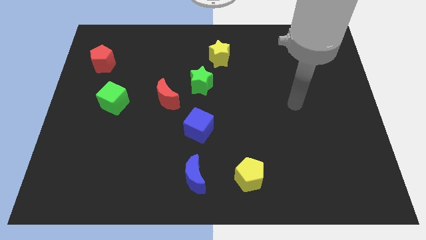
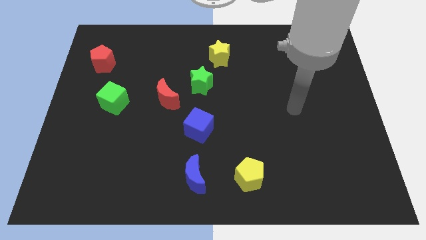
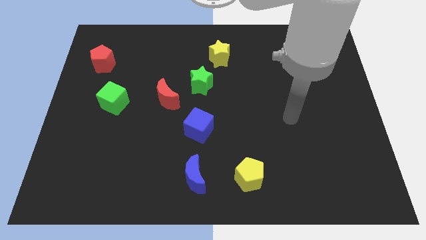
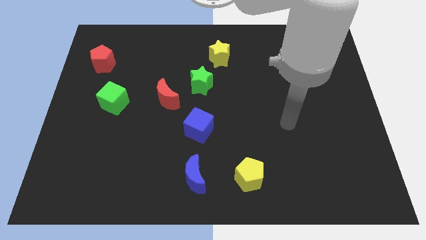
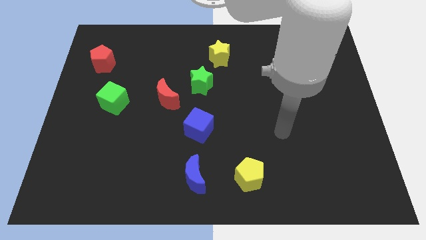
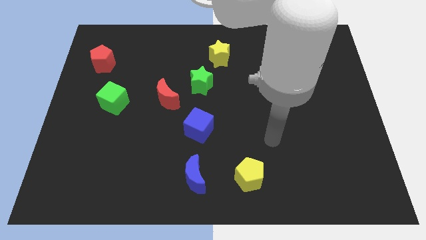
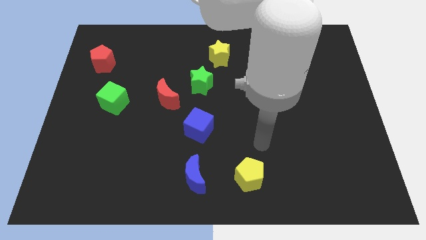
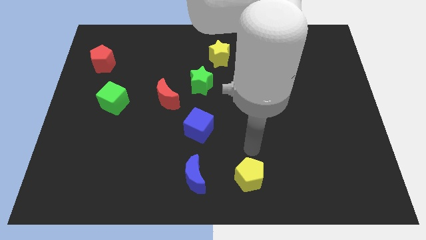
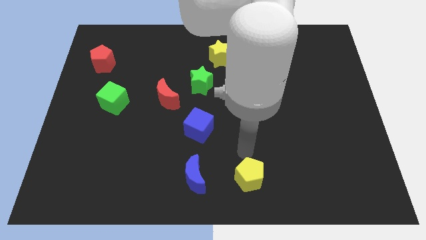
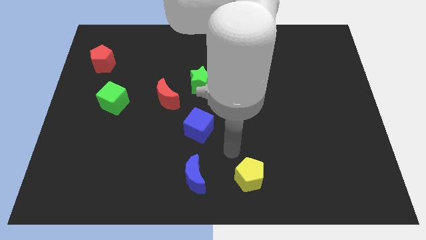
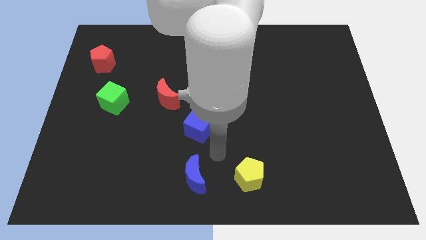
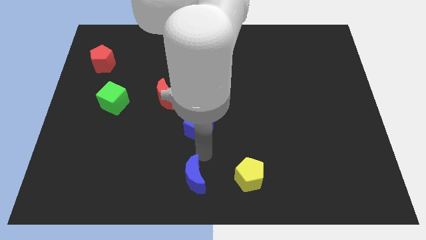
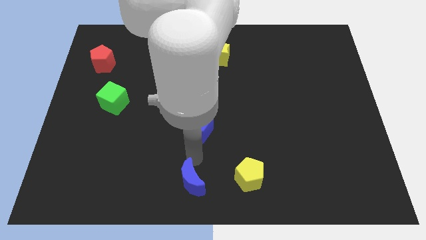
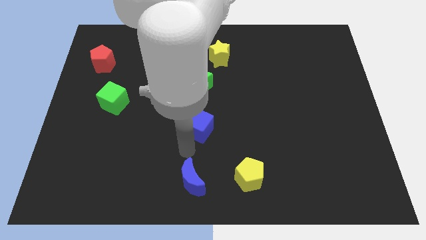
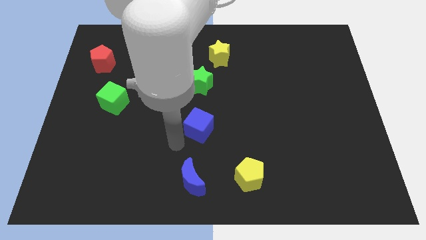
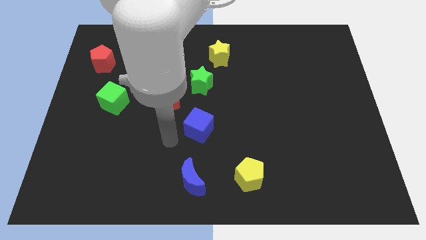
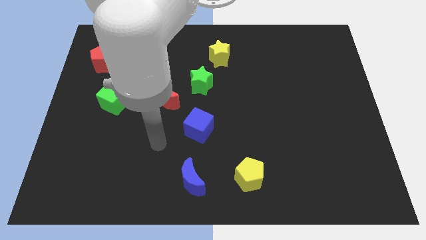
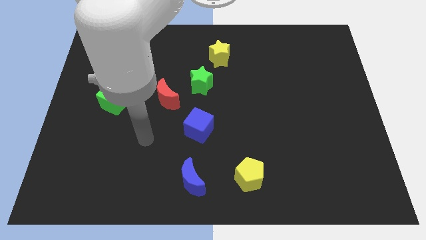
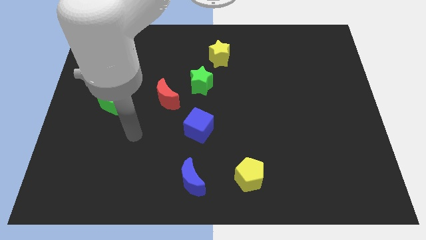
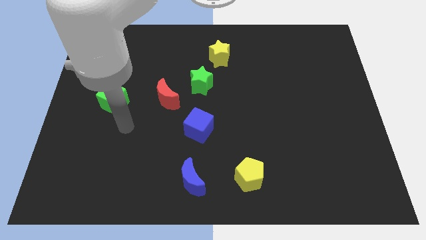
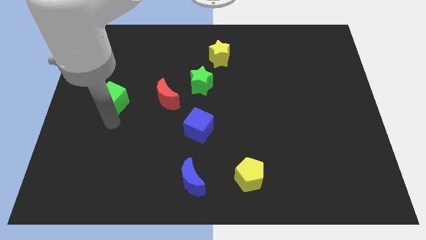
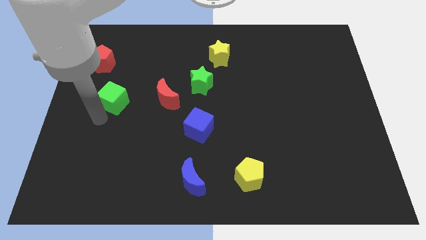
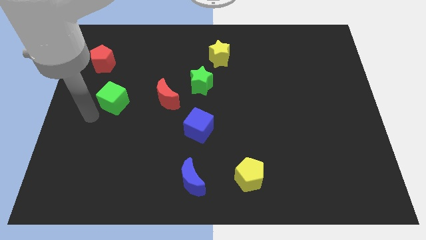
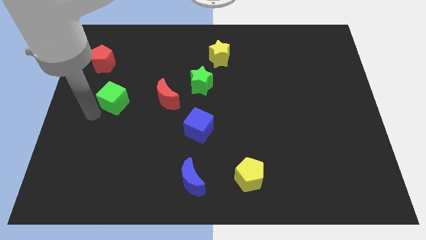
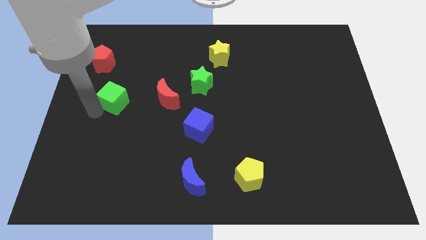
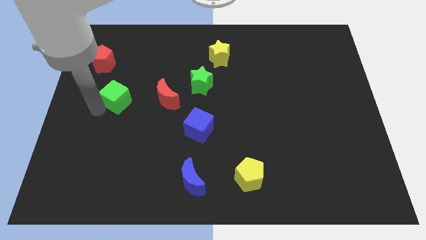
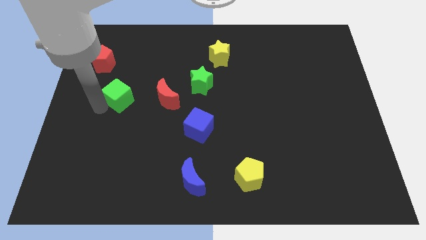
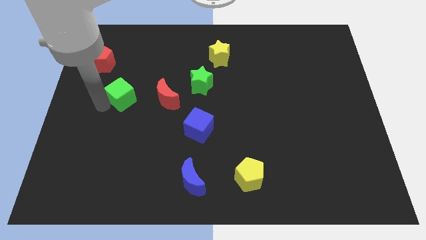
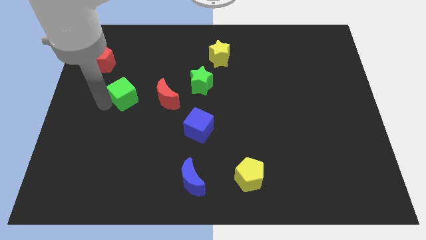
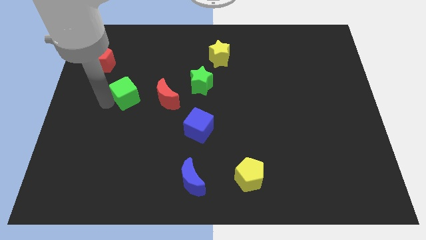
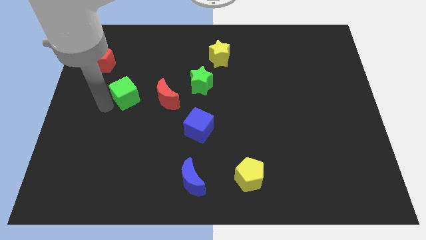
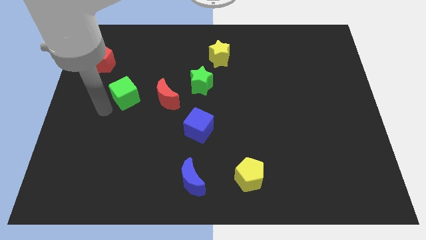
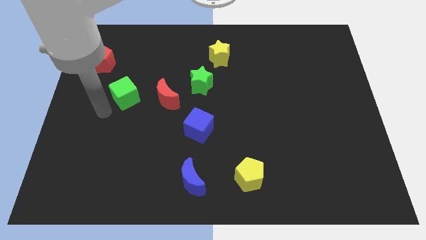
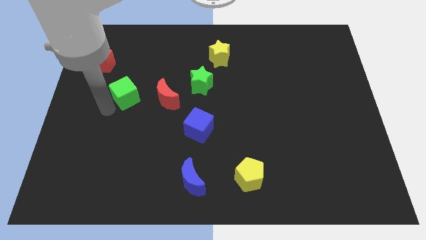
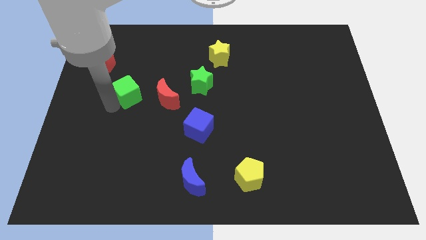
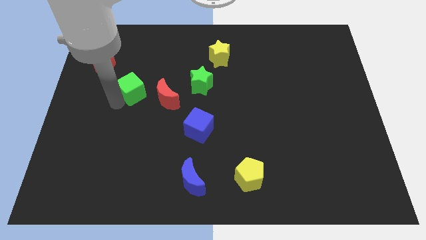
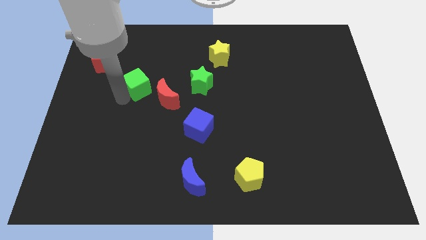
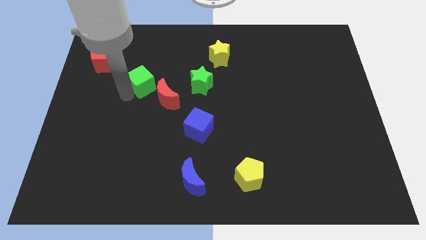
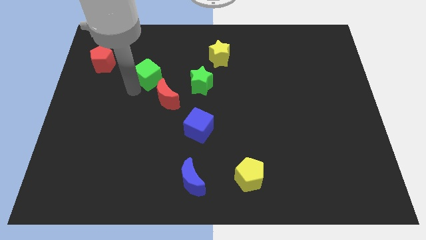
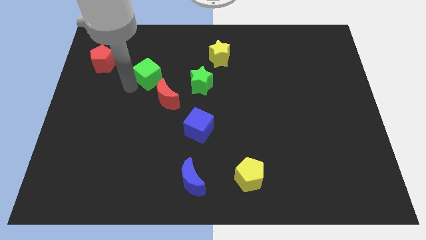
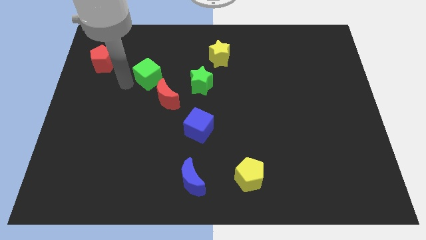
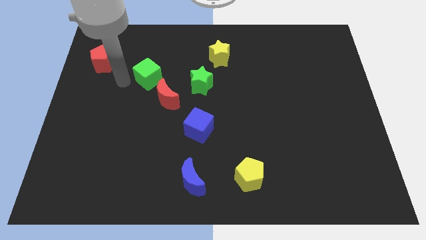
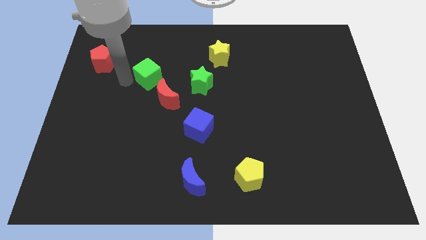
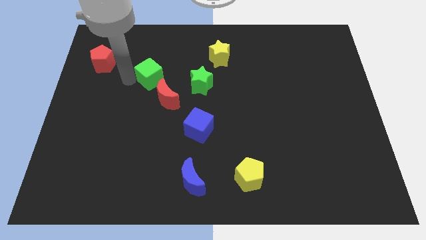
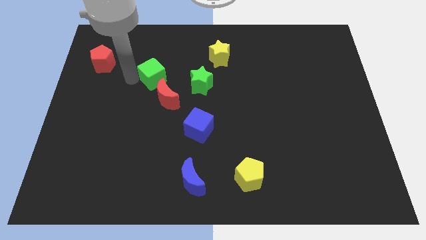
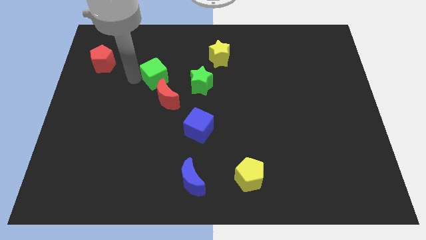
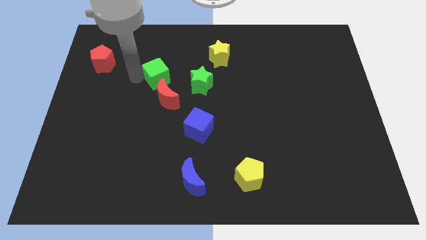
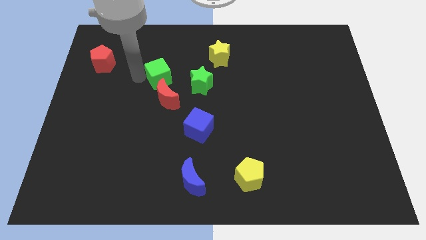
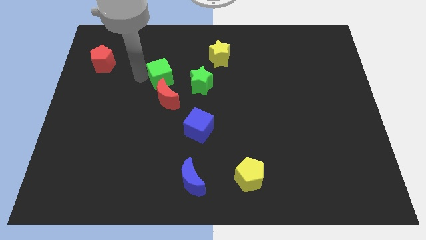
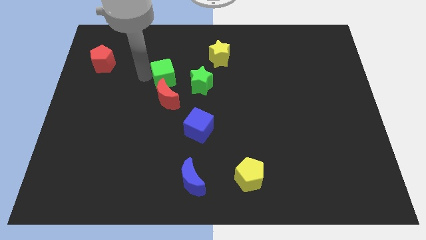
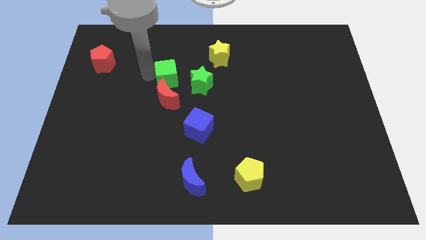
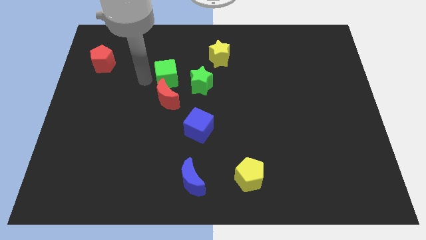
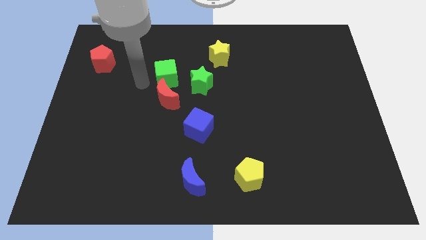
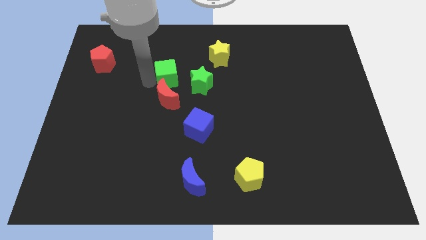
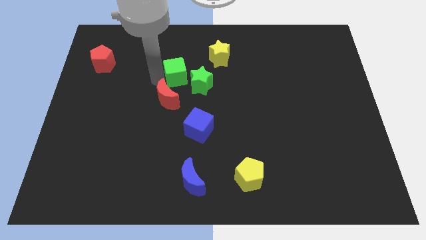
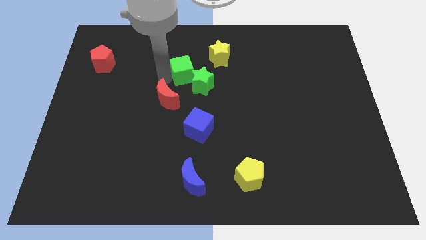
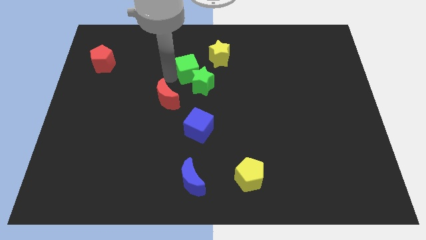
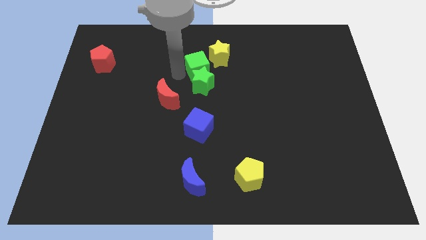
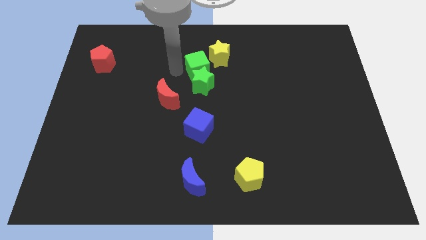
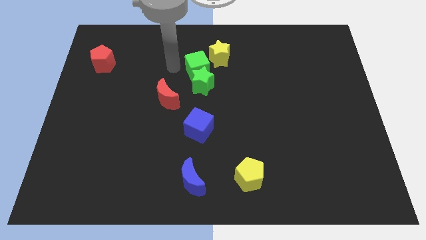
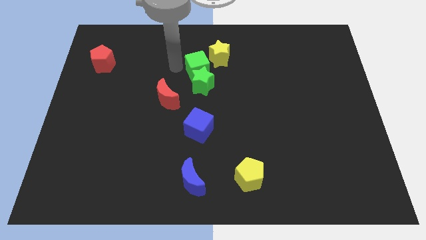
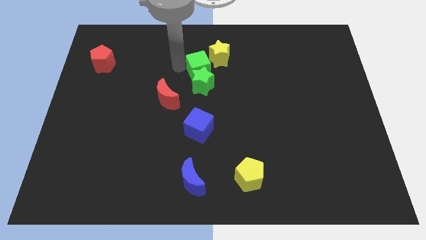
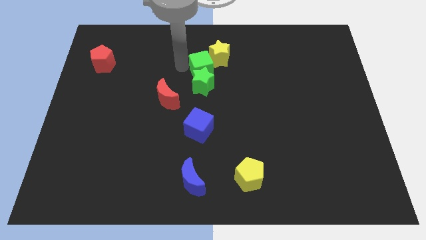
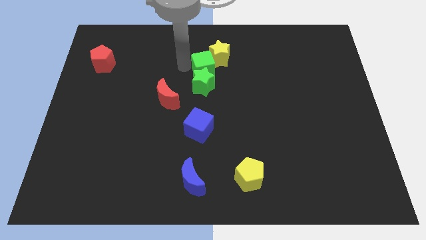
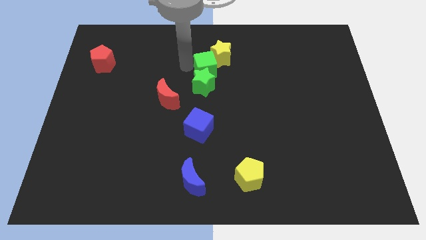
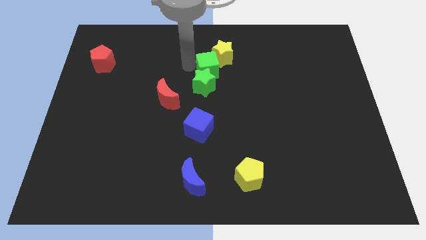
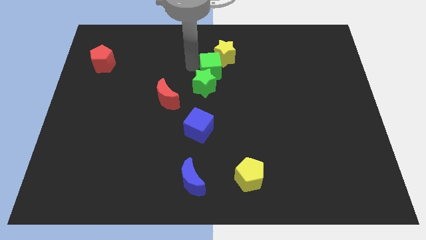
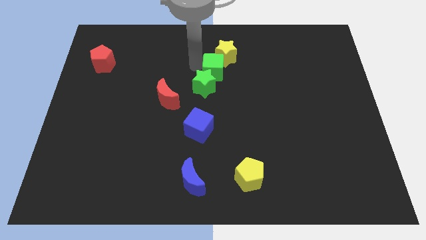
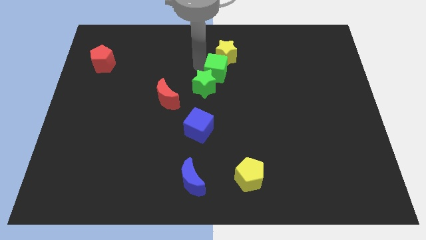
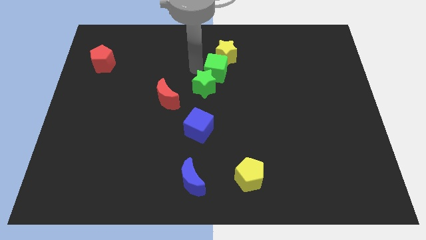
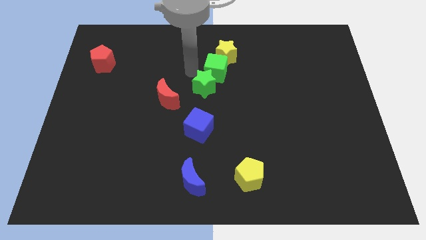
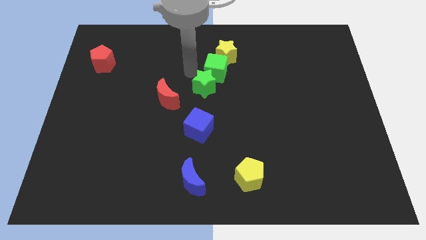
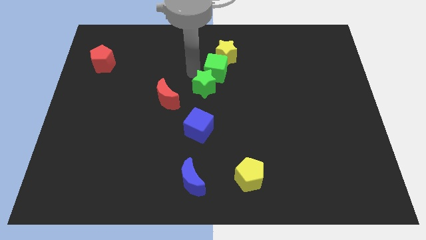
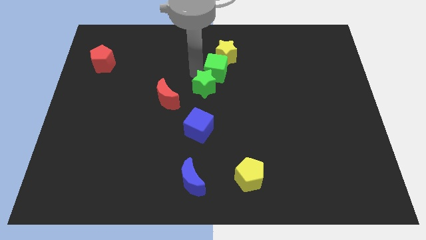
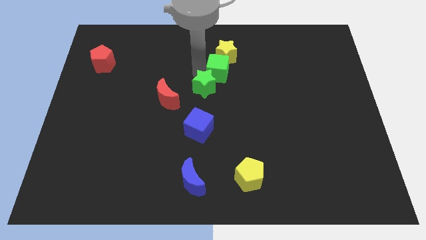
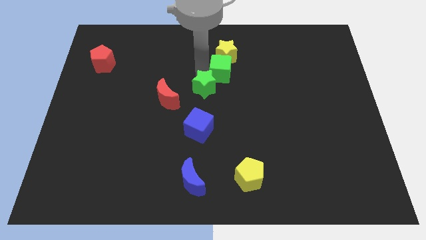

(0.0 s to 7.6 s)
slide the green cube to the bottom right side of the yellow star
